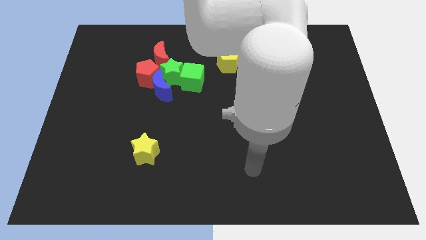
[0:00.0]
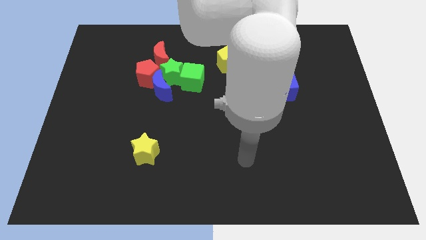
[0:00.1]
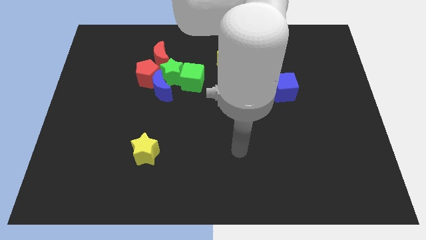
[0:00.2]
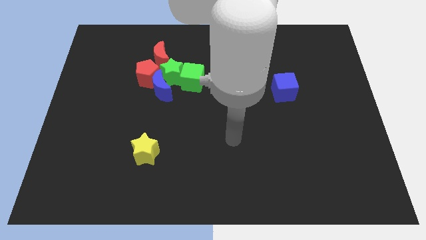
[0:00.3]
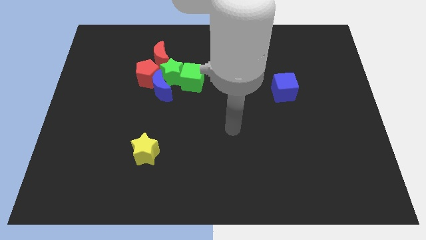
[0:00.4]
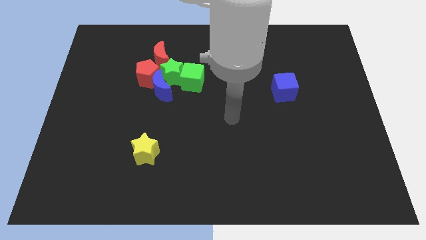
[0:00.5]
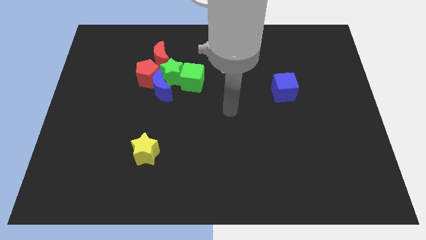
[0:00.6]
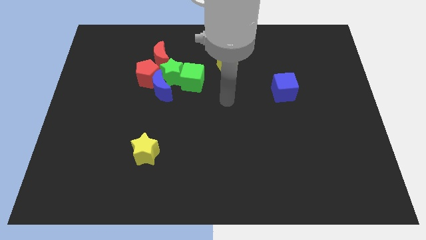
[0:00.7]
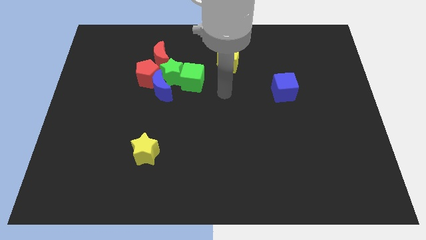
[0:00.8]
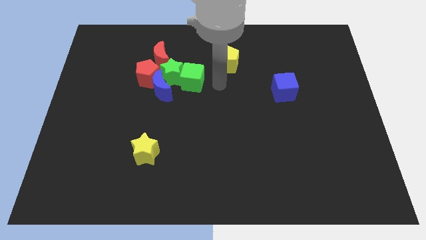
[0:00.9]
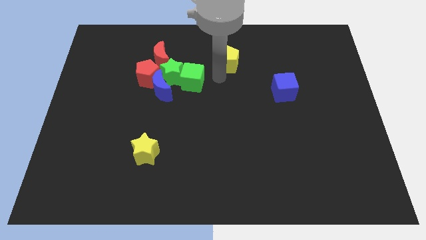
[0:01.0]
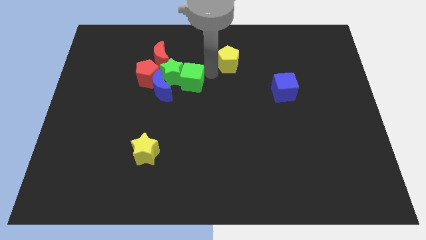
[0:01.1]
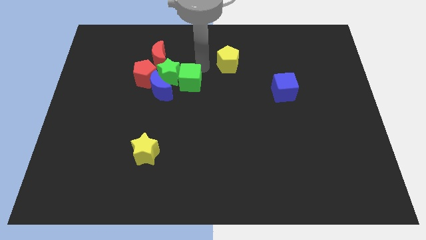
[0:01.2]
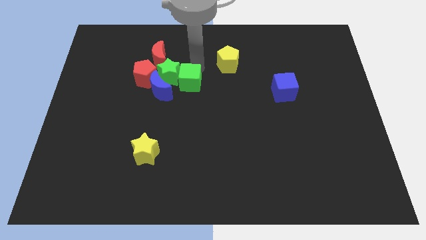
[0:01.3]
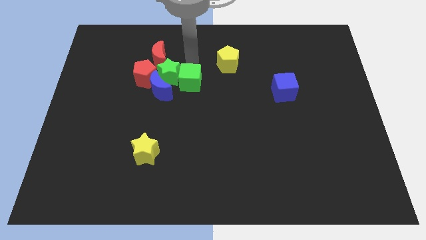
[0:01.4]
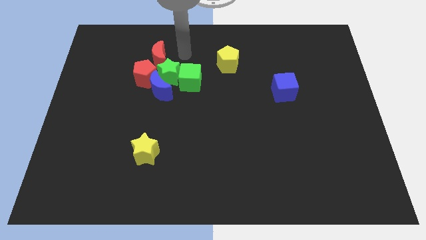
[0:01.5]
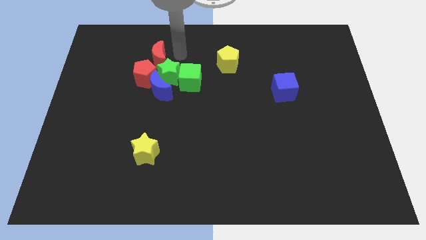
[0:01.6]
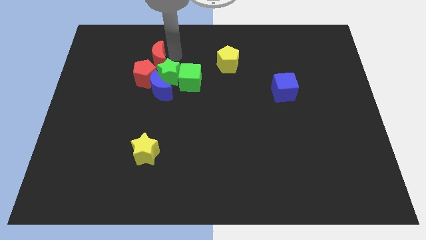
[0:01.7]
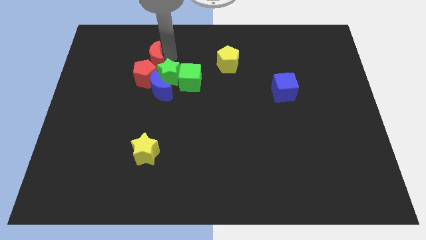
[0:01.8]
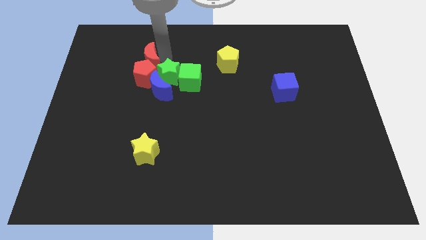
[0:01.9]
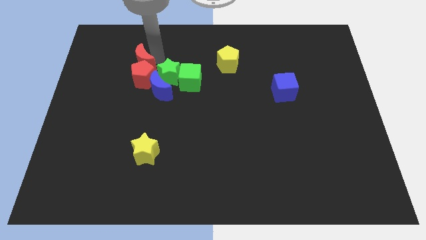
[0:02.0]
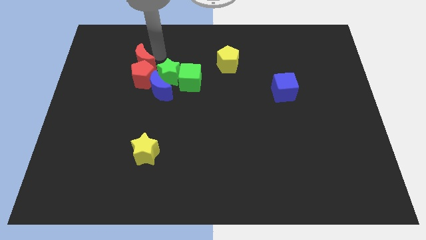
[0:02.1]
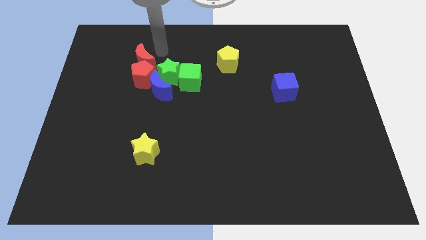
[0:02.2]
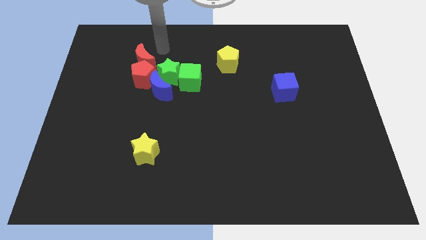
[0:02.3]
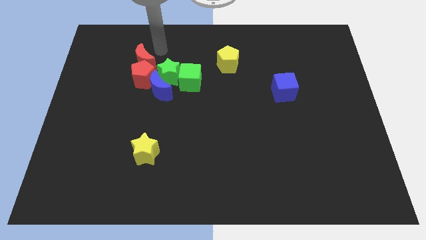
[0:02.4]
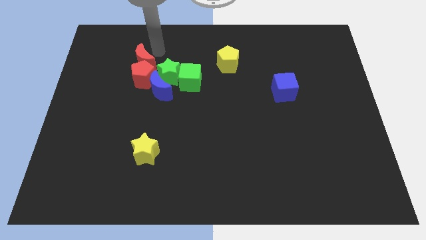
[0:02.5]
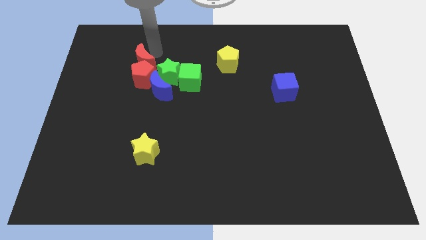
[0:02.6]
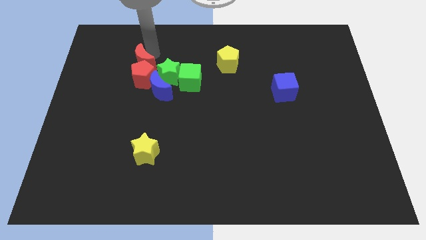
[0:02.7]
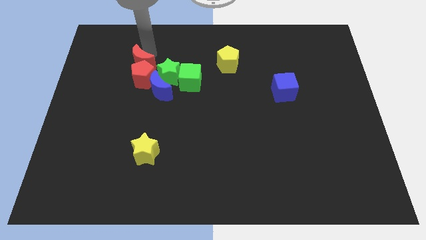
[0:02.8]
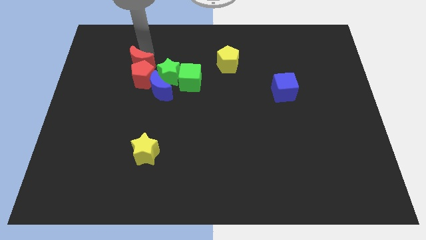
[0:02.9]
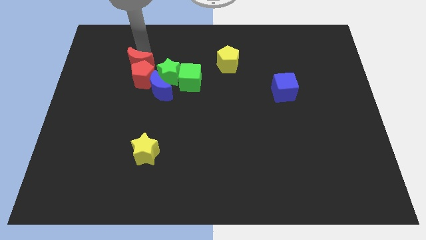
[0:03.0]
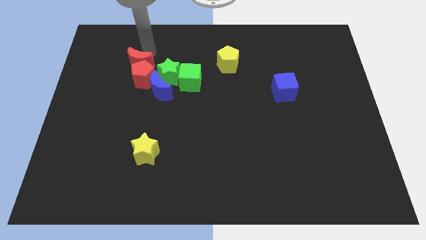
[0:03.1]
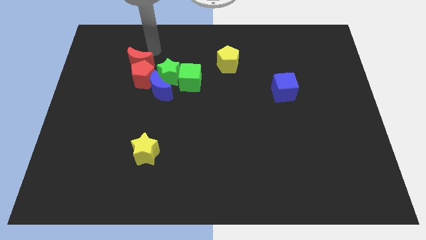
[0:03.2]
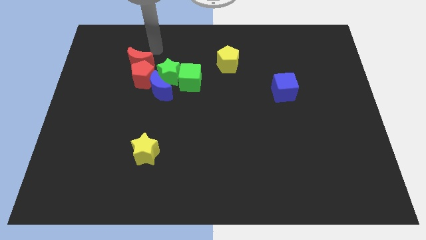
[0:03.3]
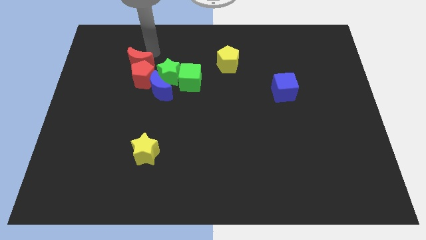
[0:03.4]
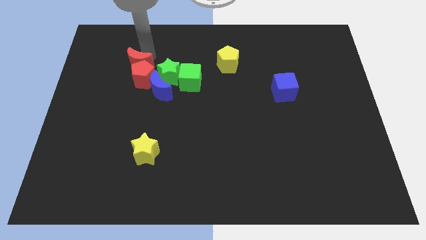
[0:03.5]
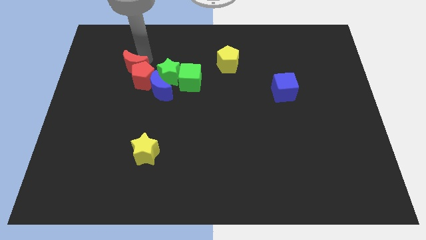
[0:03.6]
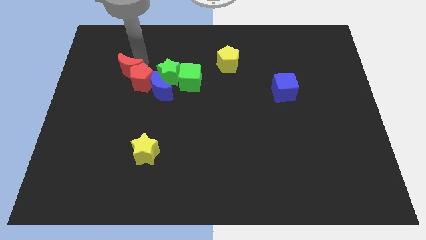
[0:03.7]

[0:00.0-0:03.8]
slightly push the red moon diagonally downwards and to the left

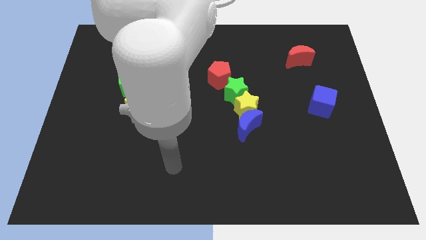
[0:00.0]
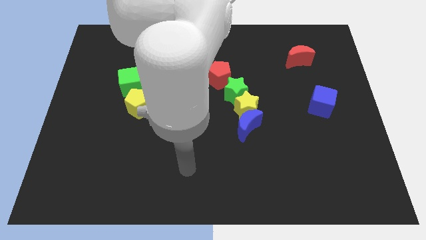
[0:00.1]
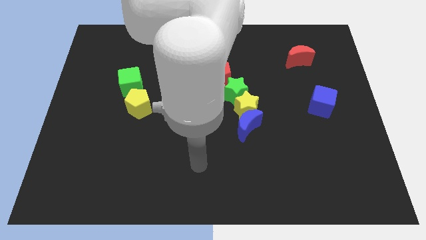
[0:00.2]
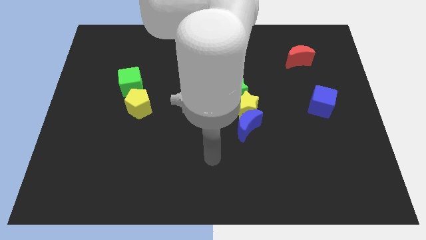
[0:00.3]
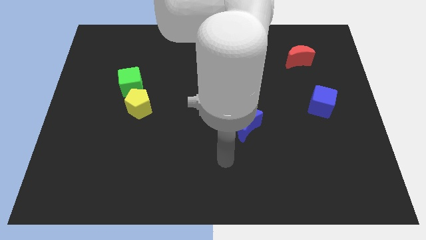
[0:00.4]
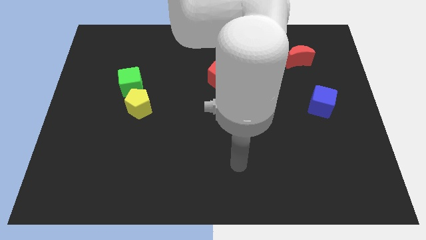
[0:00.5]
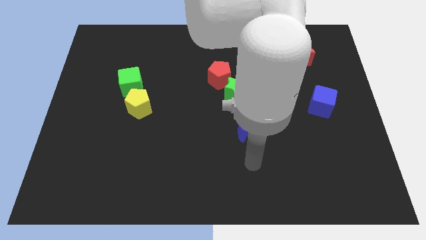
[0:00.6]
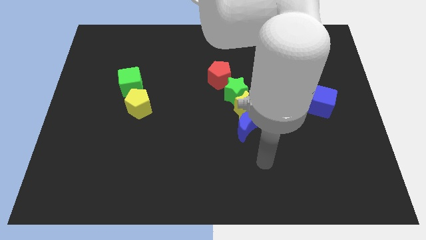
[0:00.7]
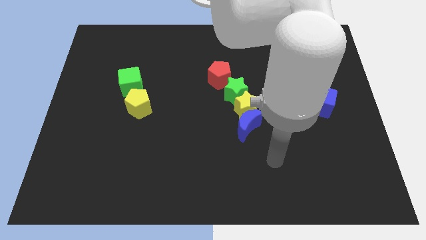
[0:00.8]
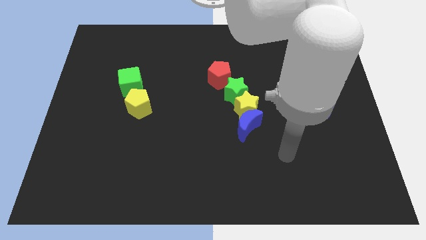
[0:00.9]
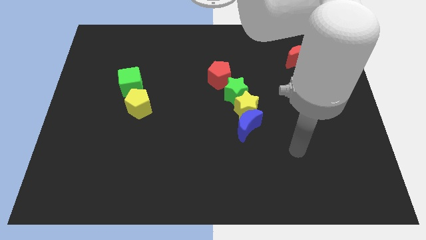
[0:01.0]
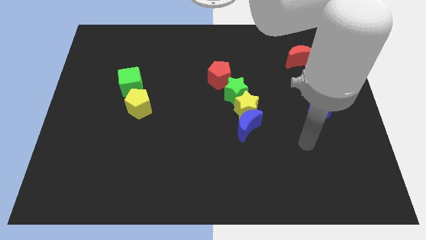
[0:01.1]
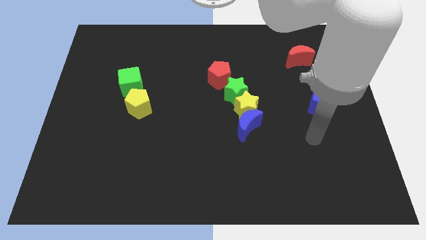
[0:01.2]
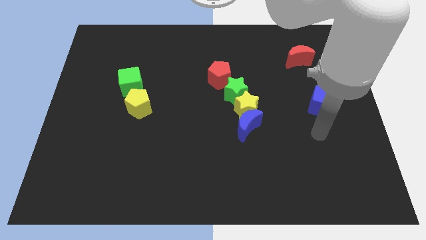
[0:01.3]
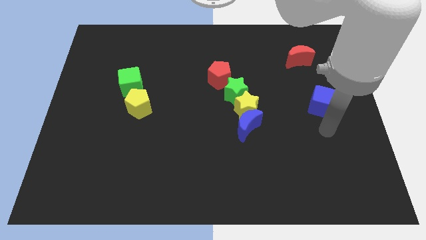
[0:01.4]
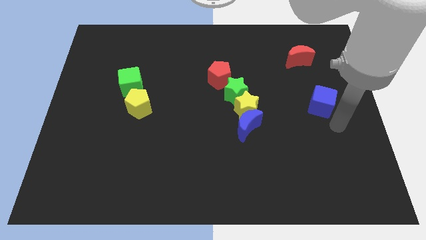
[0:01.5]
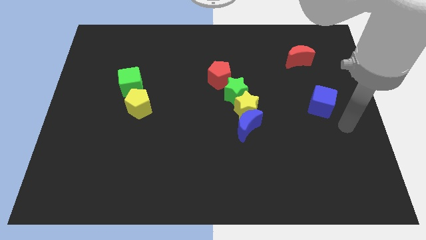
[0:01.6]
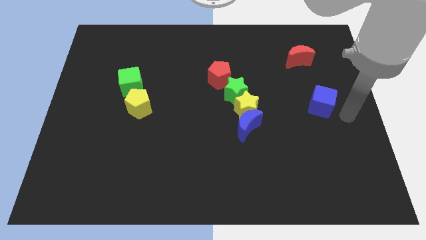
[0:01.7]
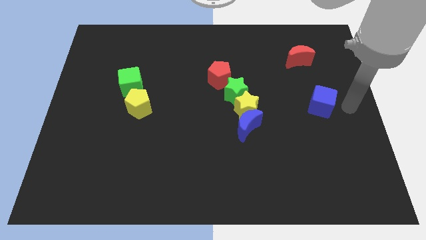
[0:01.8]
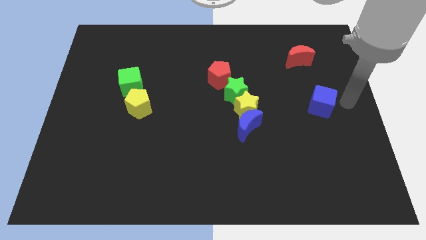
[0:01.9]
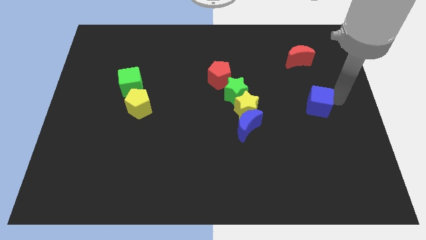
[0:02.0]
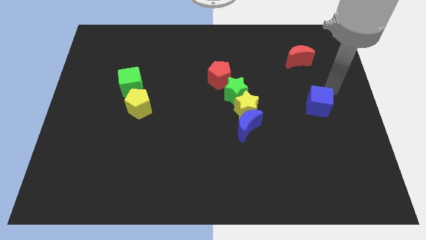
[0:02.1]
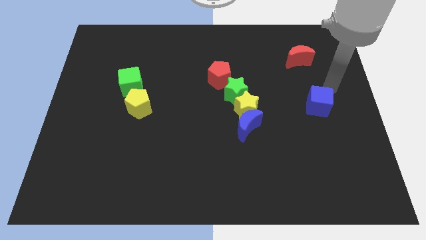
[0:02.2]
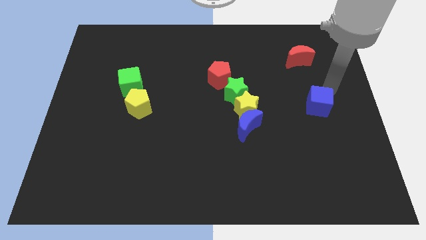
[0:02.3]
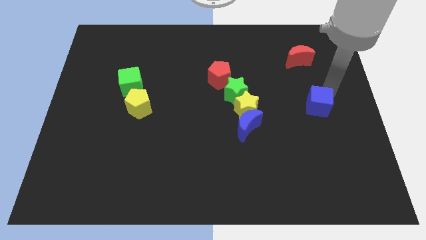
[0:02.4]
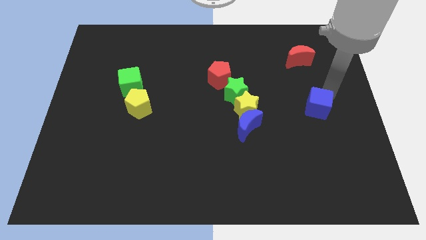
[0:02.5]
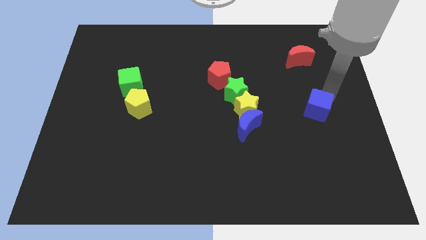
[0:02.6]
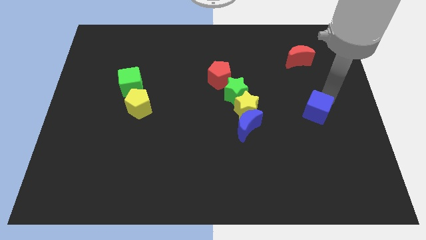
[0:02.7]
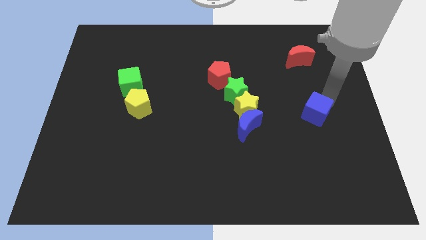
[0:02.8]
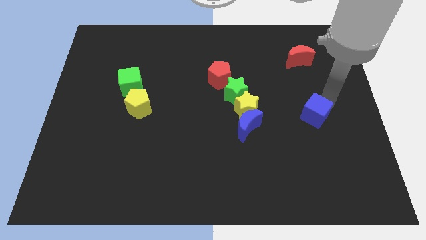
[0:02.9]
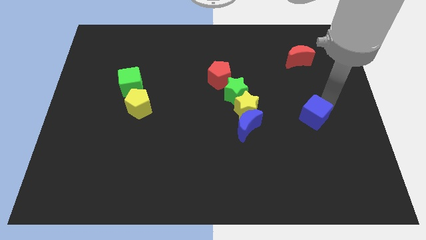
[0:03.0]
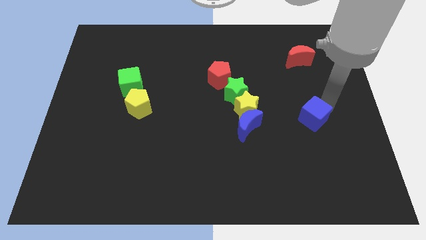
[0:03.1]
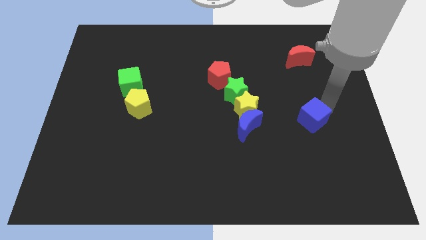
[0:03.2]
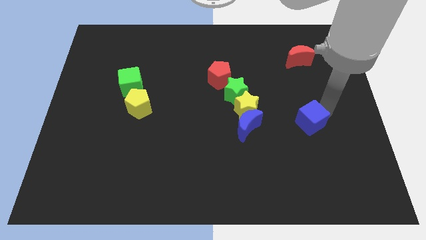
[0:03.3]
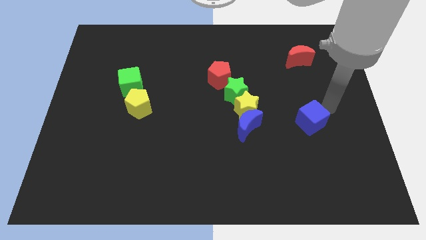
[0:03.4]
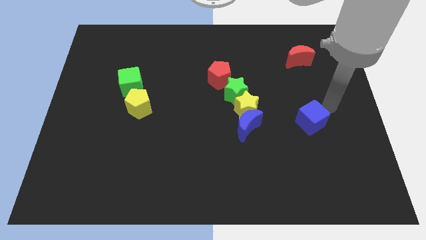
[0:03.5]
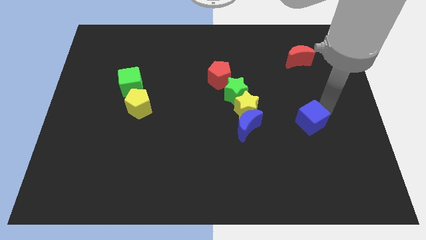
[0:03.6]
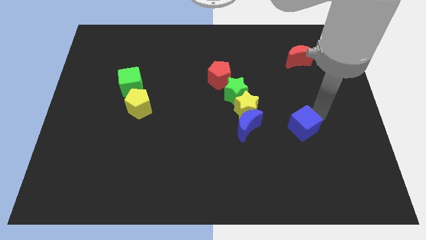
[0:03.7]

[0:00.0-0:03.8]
push the blue cube downwards and left diagonally a little

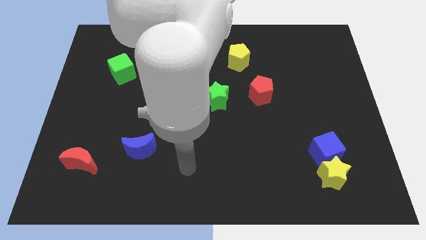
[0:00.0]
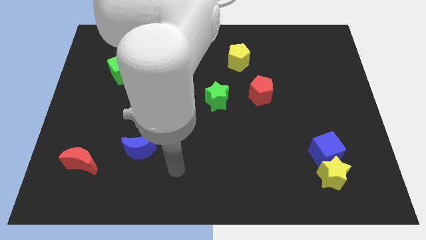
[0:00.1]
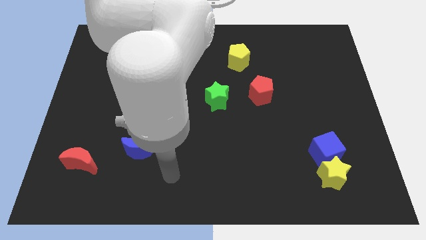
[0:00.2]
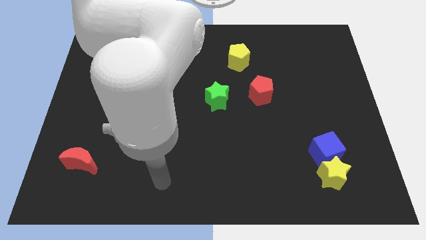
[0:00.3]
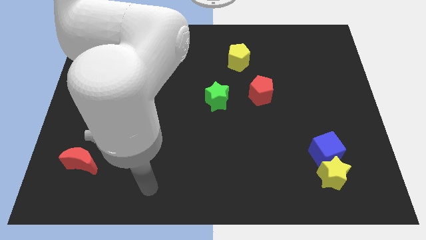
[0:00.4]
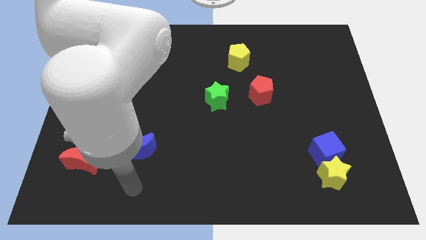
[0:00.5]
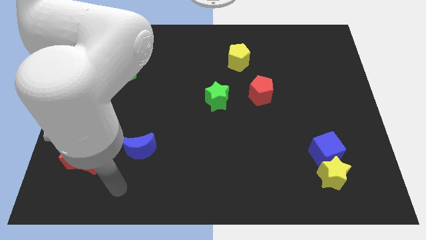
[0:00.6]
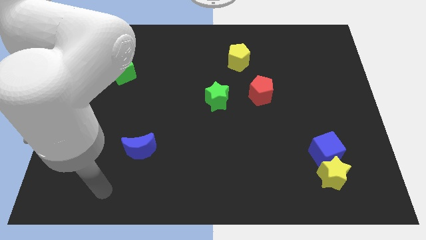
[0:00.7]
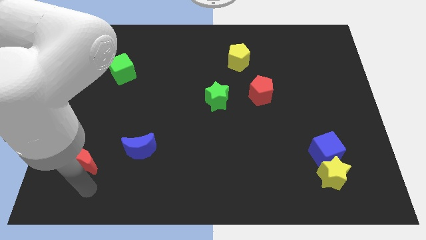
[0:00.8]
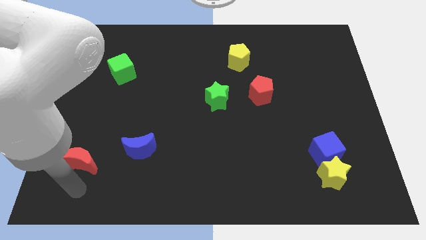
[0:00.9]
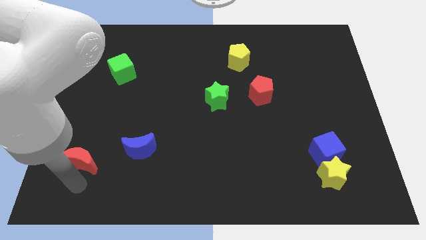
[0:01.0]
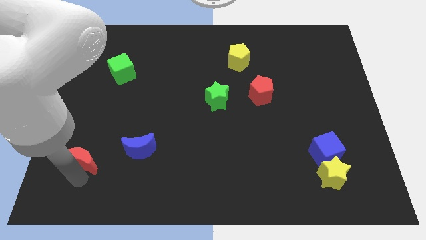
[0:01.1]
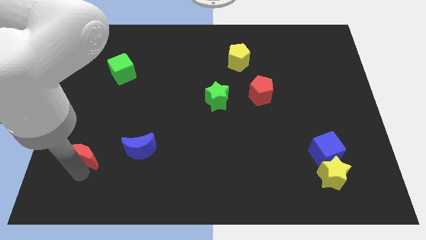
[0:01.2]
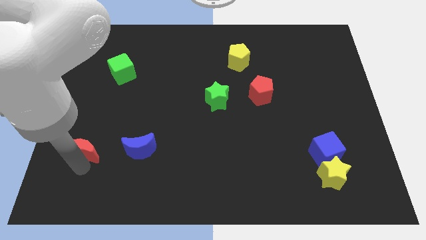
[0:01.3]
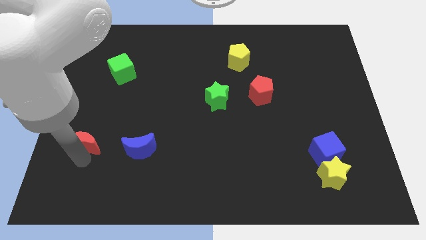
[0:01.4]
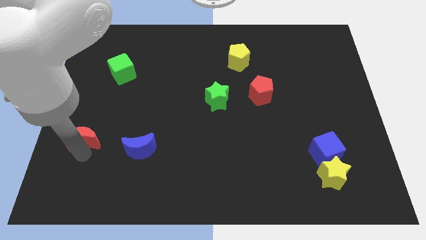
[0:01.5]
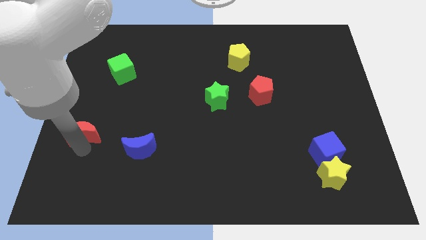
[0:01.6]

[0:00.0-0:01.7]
push the red moon slightly up
